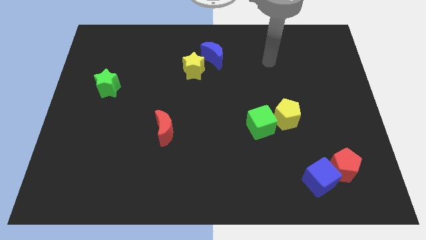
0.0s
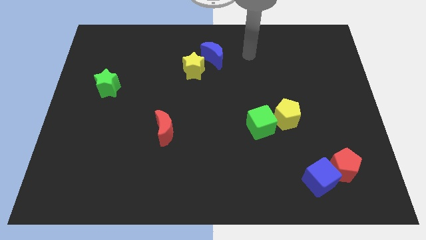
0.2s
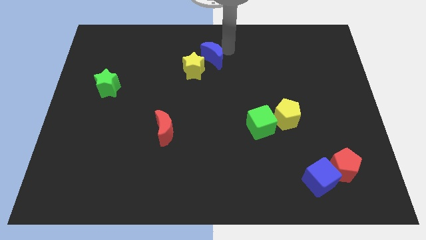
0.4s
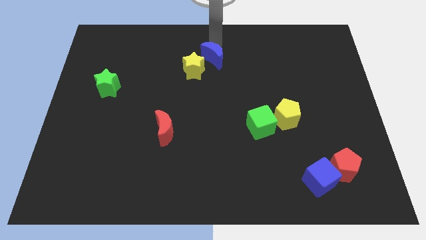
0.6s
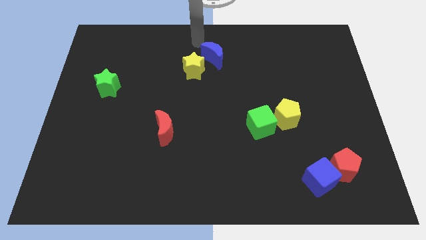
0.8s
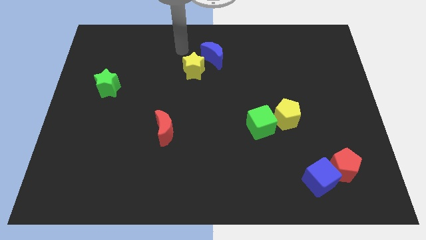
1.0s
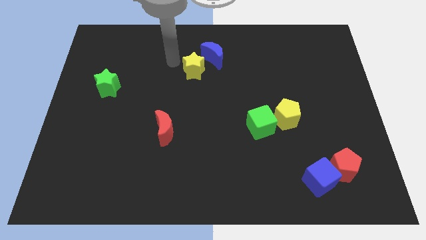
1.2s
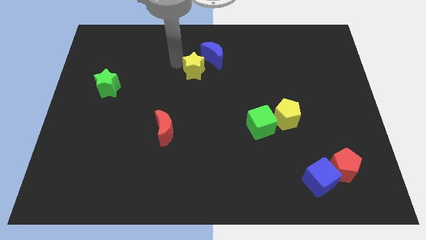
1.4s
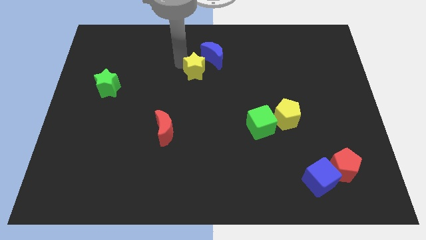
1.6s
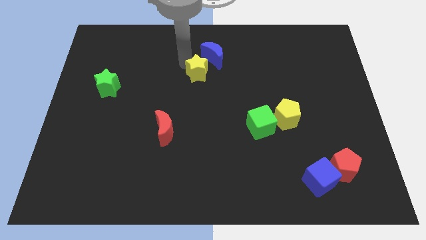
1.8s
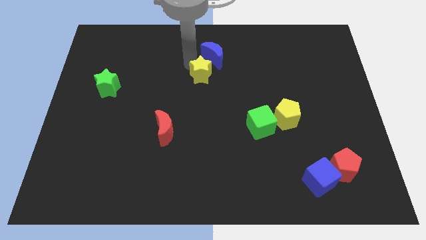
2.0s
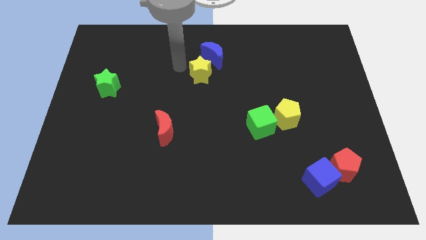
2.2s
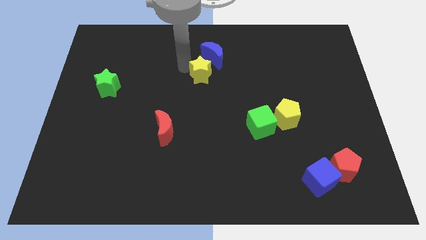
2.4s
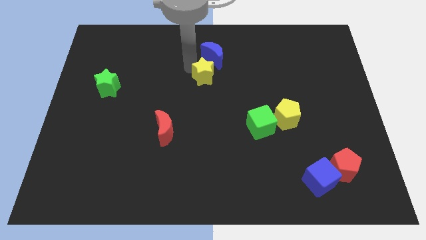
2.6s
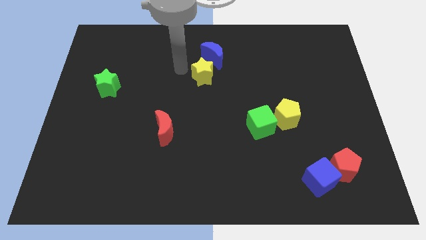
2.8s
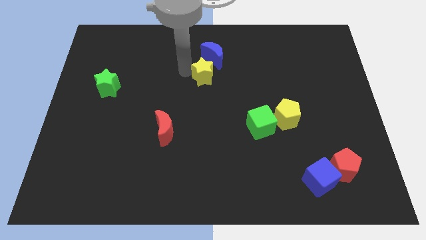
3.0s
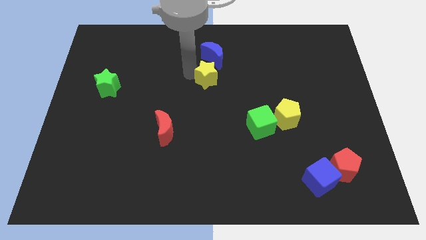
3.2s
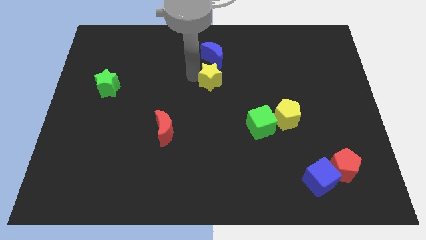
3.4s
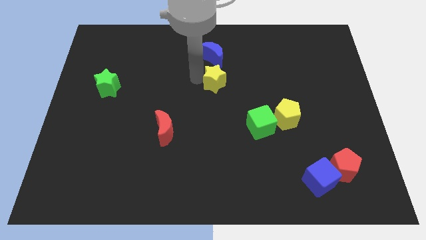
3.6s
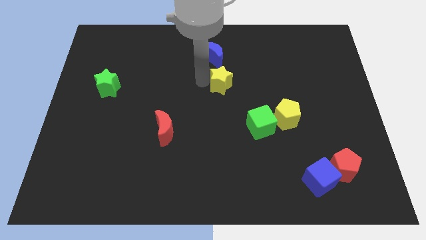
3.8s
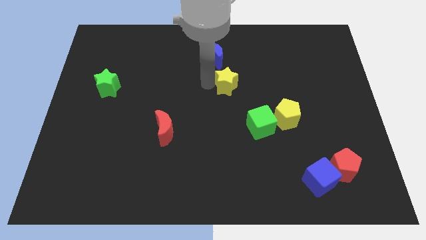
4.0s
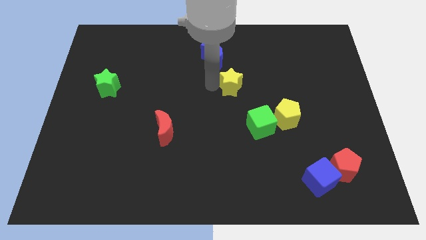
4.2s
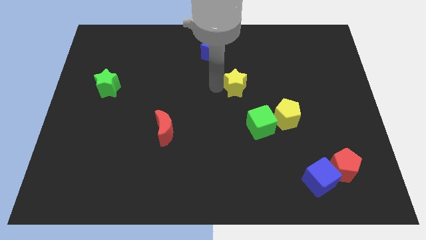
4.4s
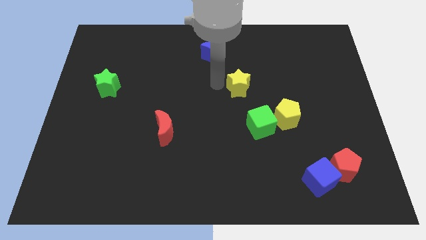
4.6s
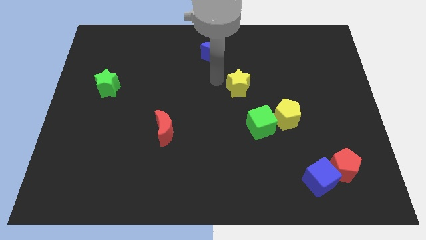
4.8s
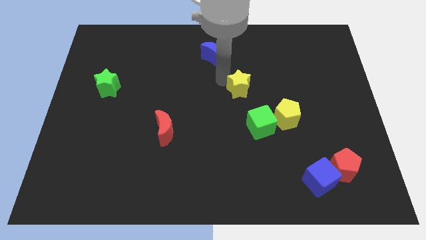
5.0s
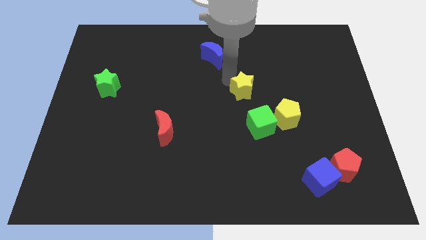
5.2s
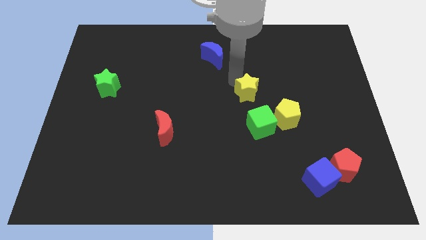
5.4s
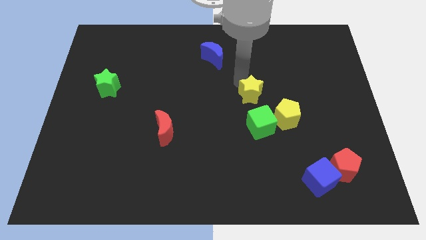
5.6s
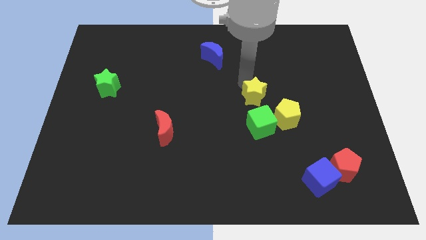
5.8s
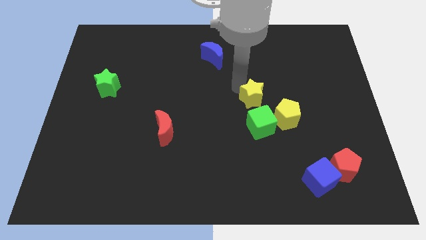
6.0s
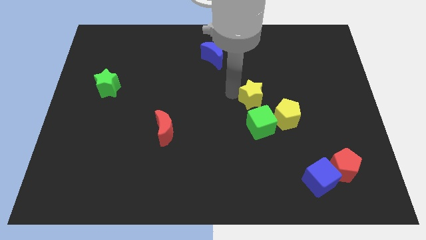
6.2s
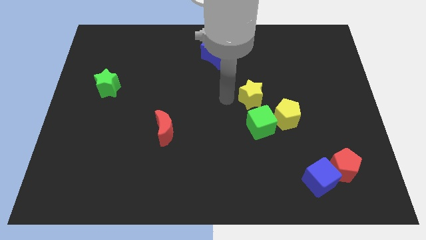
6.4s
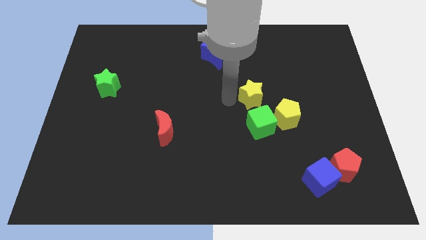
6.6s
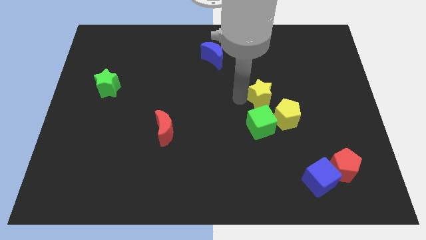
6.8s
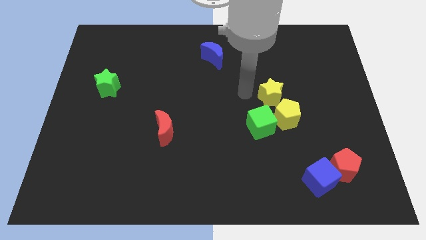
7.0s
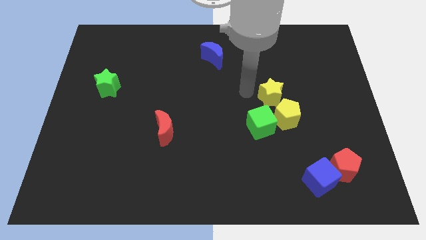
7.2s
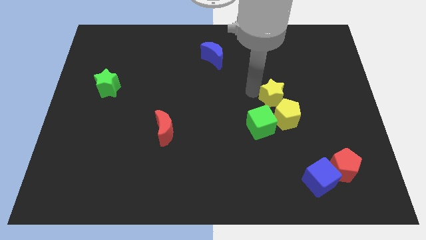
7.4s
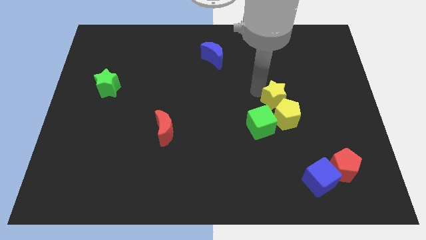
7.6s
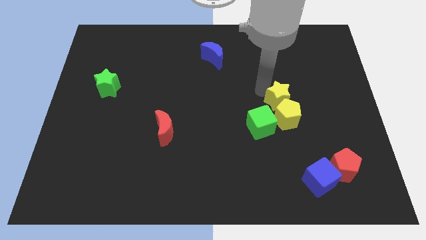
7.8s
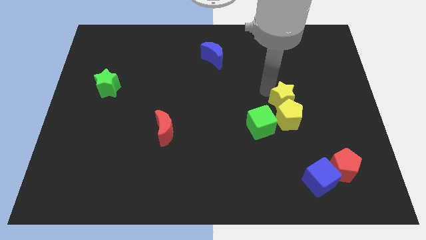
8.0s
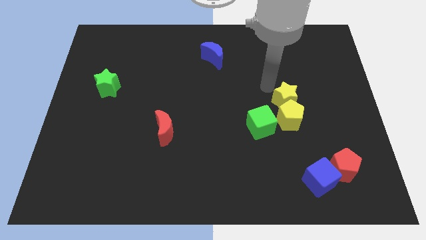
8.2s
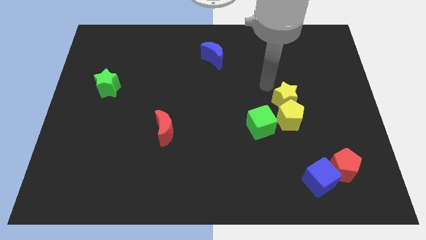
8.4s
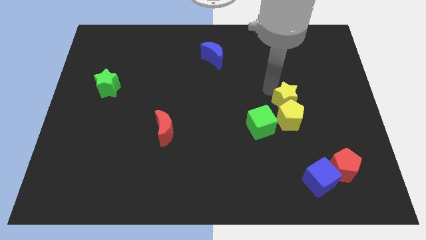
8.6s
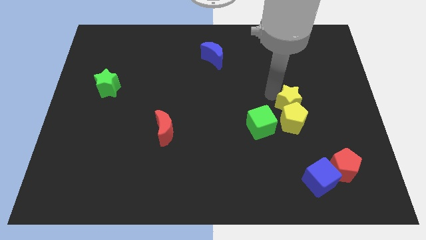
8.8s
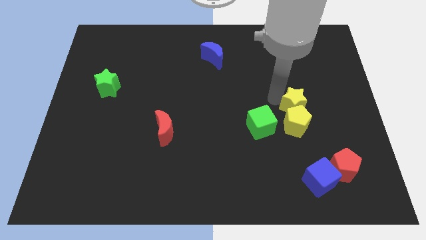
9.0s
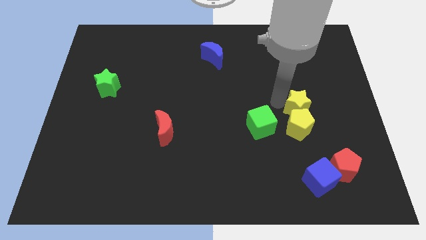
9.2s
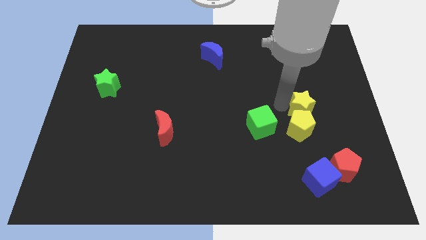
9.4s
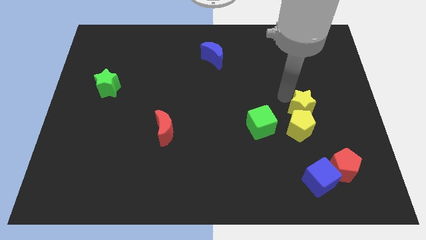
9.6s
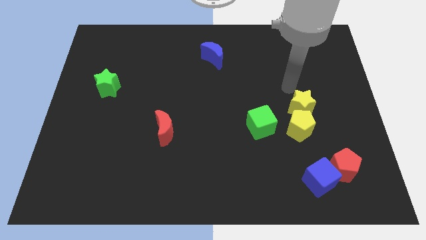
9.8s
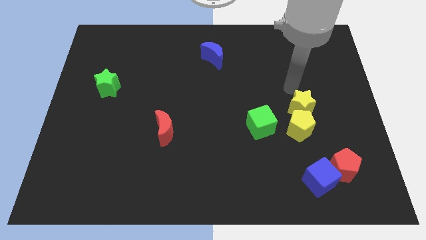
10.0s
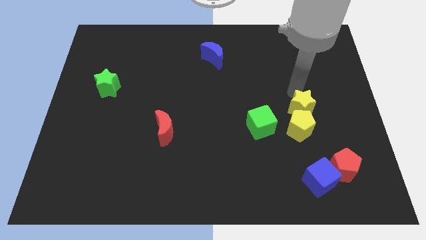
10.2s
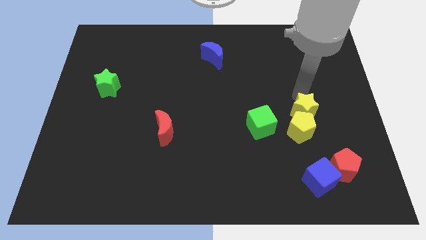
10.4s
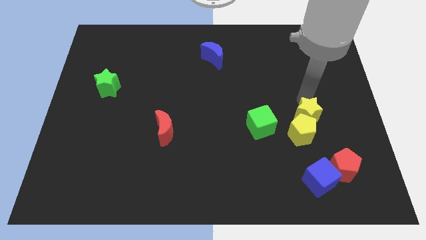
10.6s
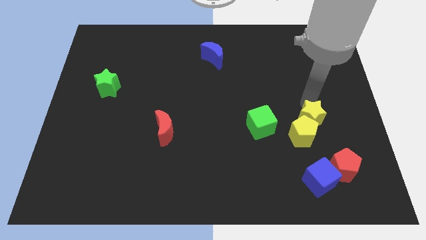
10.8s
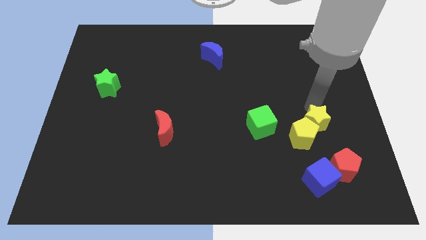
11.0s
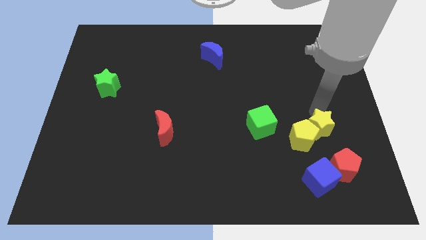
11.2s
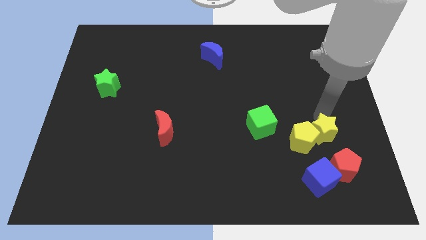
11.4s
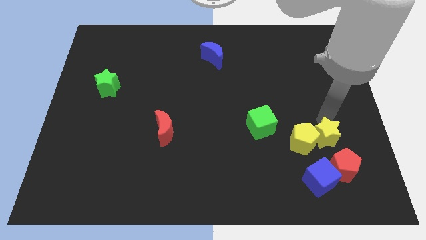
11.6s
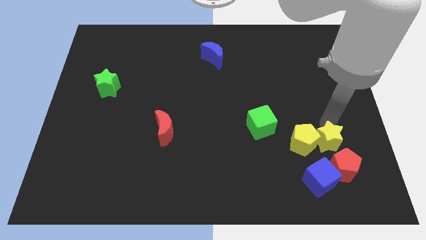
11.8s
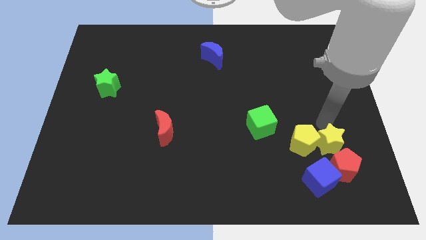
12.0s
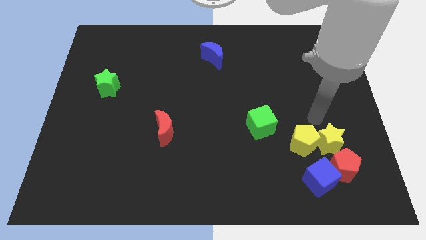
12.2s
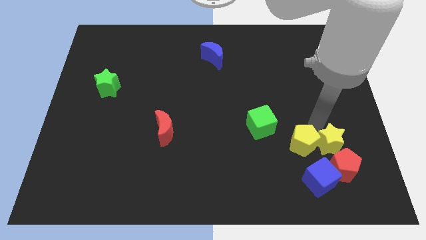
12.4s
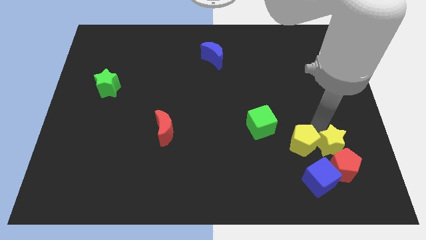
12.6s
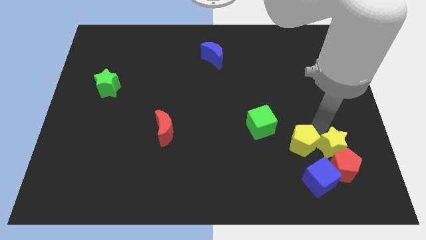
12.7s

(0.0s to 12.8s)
slide the yellow star to the red pentagon

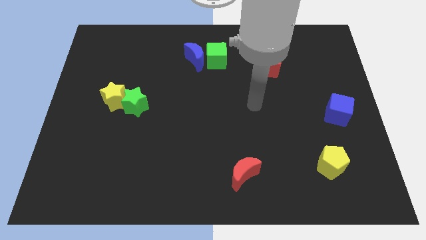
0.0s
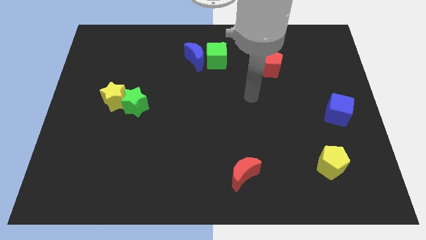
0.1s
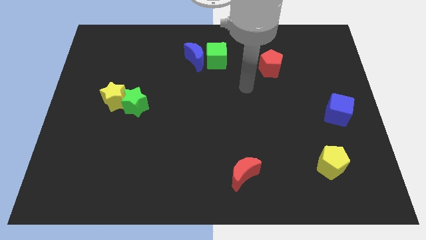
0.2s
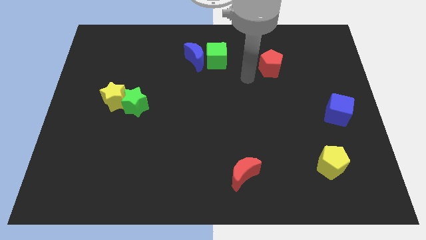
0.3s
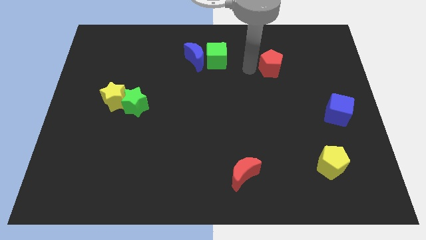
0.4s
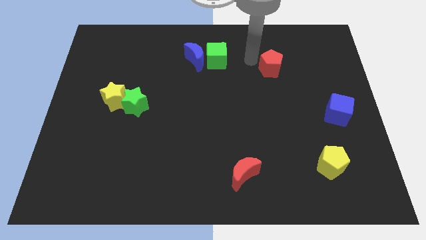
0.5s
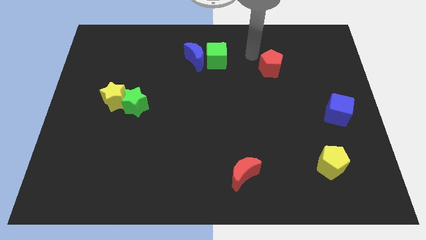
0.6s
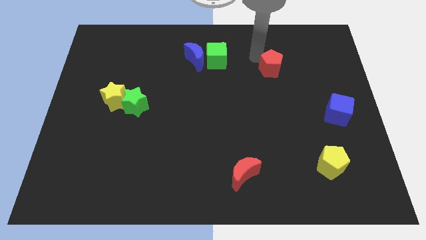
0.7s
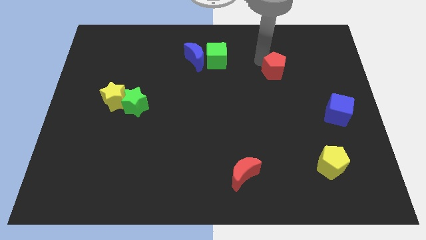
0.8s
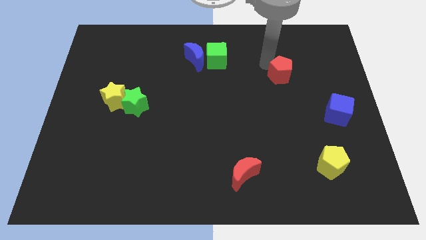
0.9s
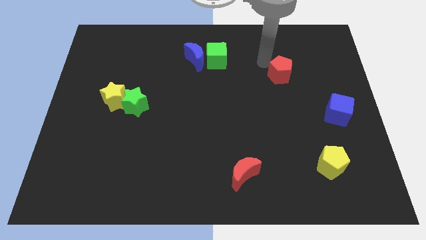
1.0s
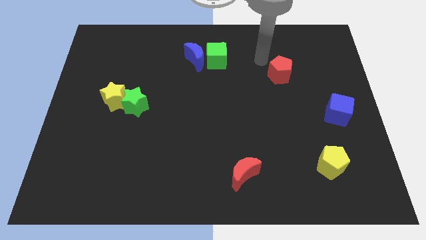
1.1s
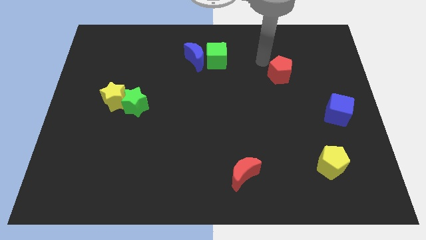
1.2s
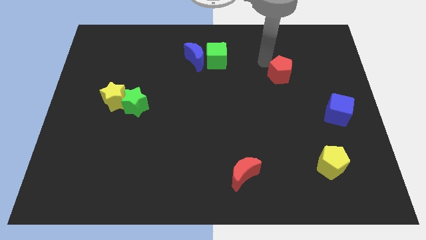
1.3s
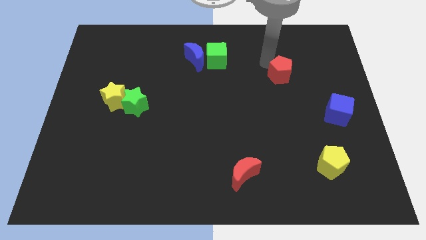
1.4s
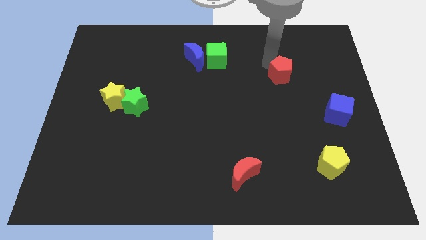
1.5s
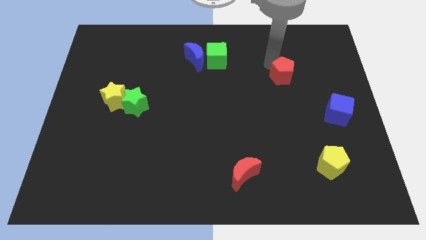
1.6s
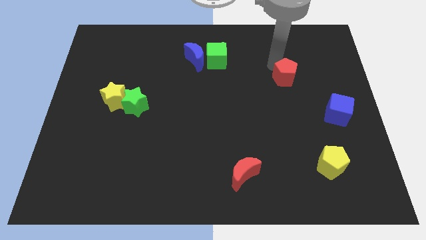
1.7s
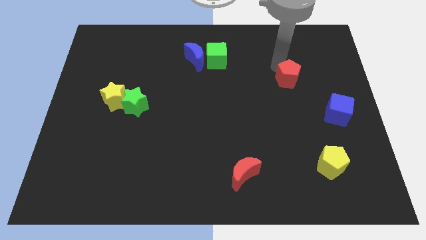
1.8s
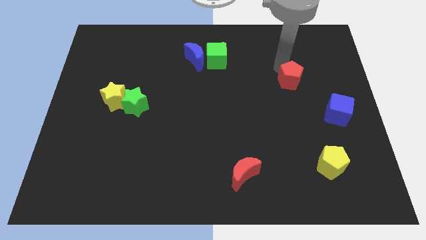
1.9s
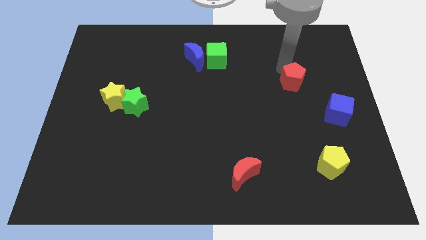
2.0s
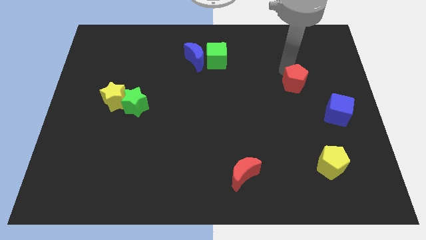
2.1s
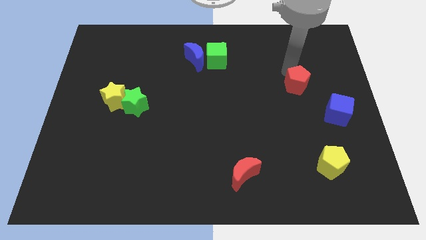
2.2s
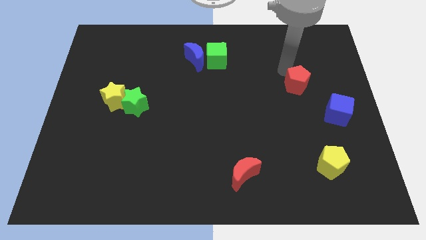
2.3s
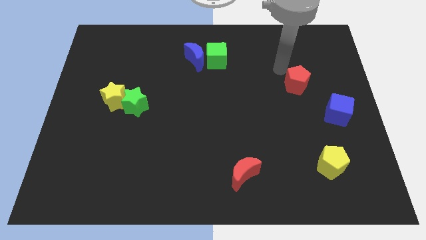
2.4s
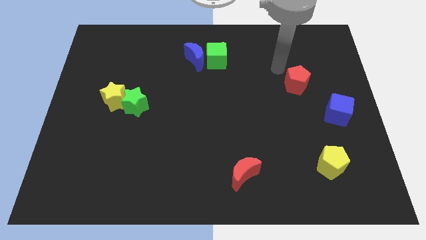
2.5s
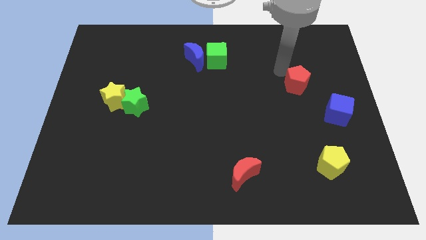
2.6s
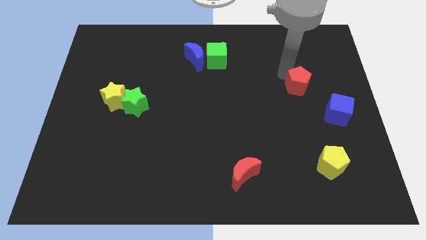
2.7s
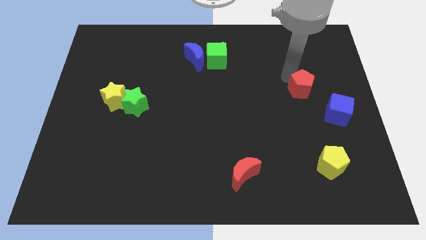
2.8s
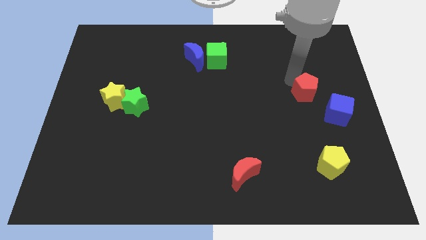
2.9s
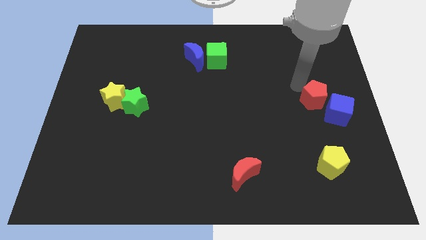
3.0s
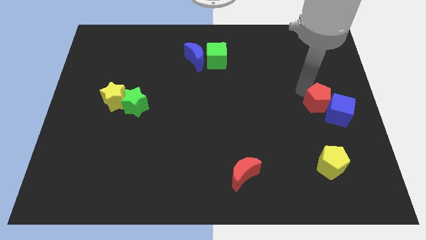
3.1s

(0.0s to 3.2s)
put the red pentagon close to the blue cube
